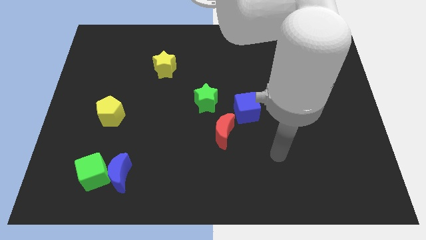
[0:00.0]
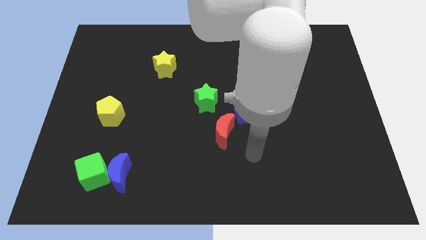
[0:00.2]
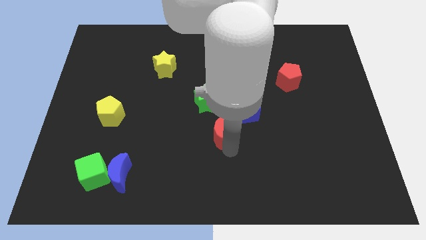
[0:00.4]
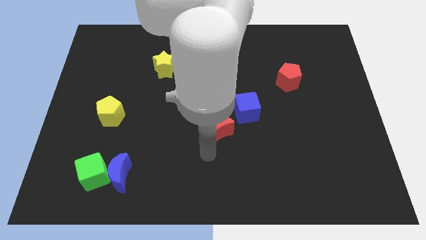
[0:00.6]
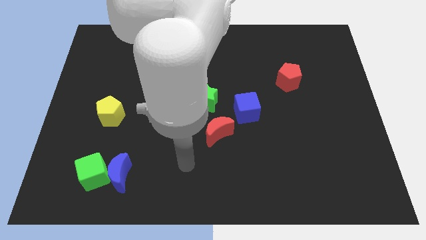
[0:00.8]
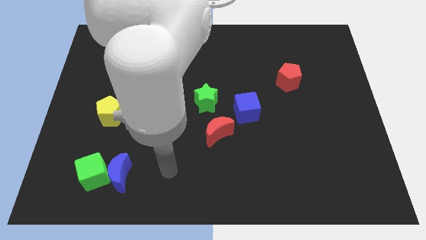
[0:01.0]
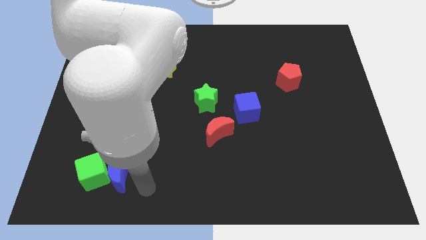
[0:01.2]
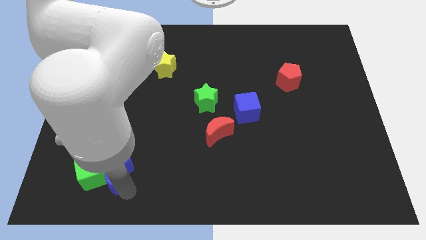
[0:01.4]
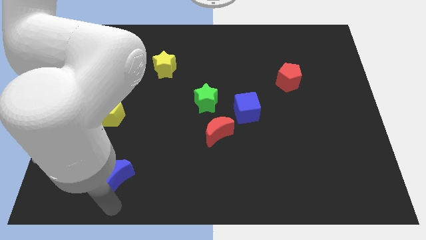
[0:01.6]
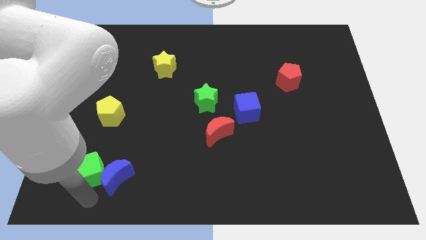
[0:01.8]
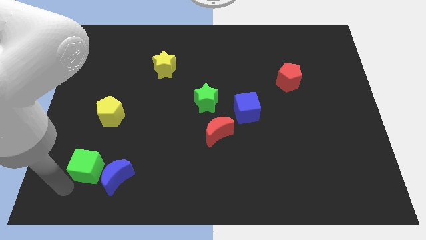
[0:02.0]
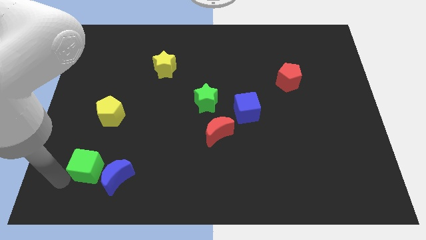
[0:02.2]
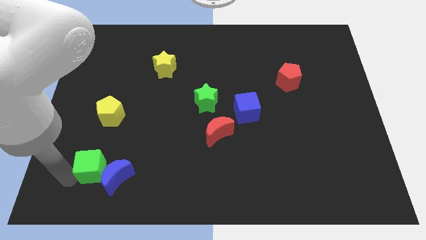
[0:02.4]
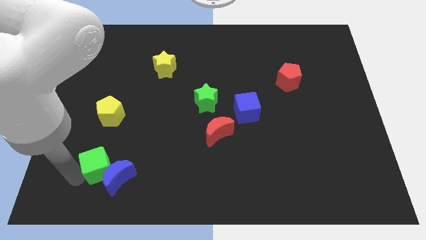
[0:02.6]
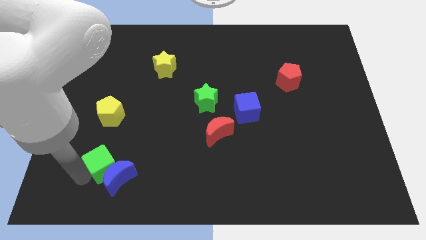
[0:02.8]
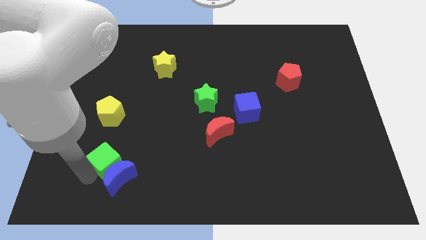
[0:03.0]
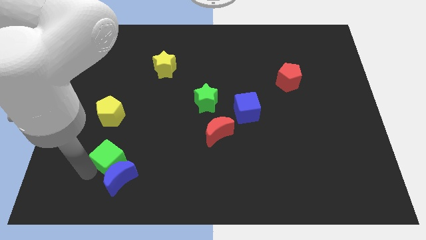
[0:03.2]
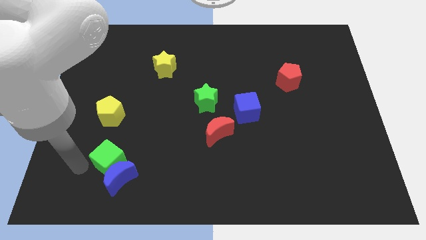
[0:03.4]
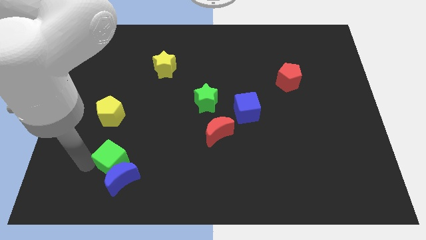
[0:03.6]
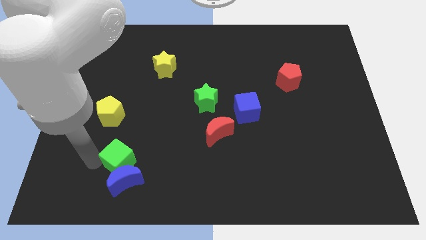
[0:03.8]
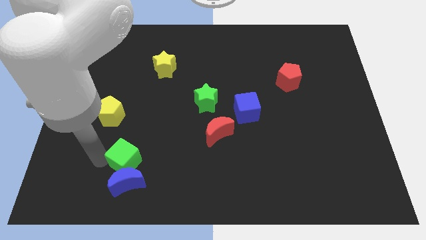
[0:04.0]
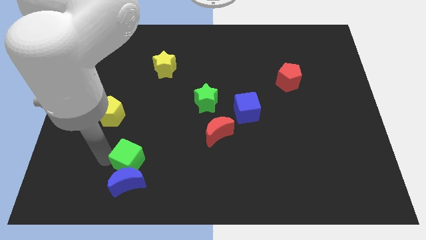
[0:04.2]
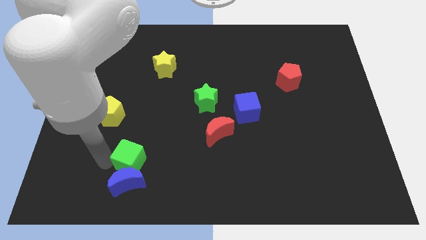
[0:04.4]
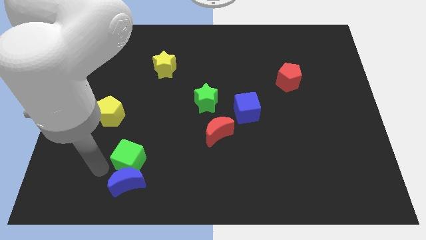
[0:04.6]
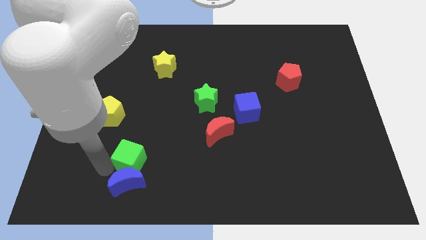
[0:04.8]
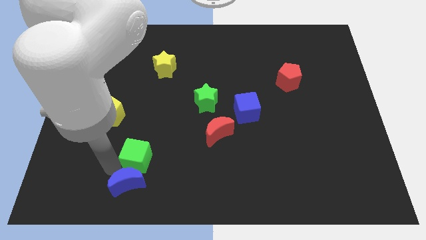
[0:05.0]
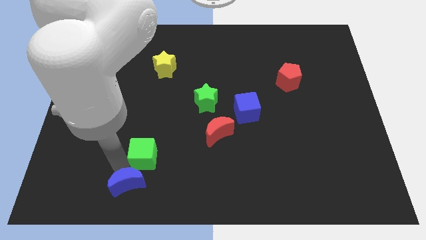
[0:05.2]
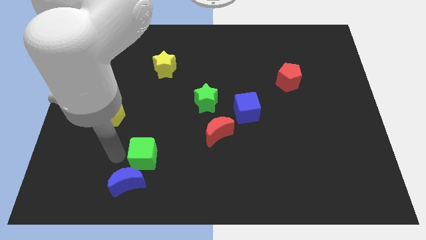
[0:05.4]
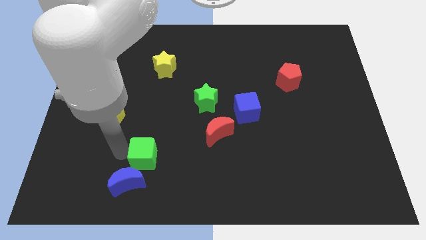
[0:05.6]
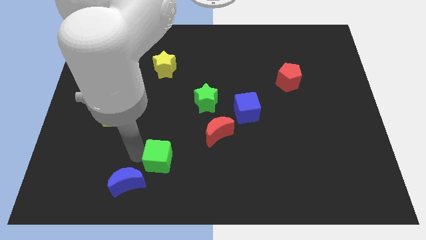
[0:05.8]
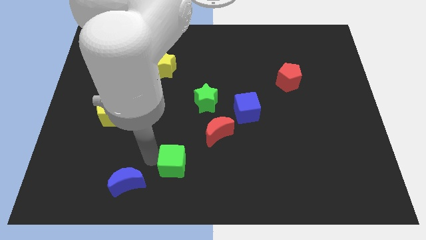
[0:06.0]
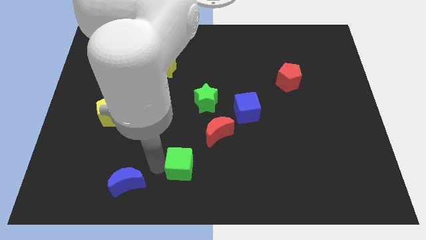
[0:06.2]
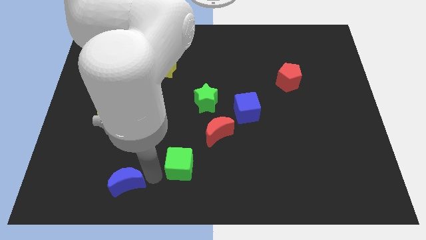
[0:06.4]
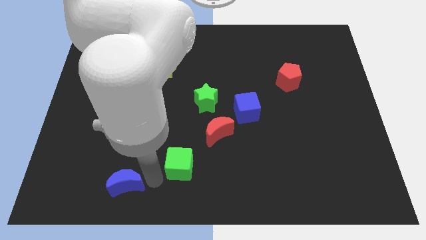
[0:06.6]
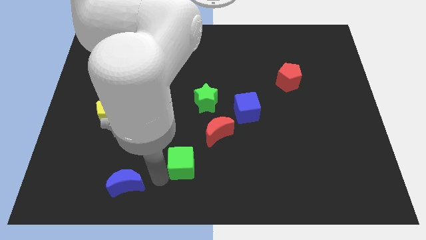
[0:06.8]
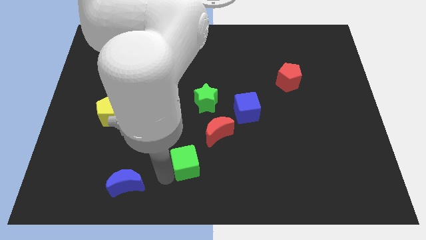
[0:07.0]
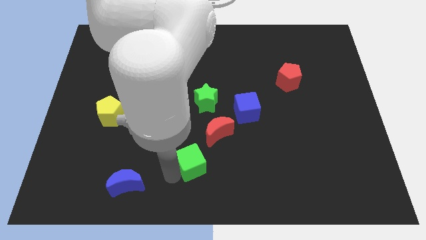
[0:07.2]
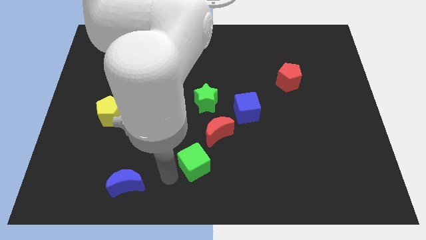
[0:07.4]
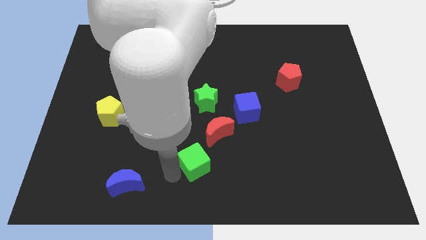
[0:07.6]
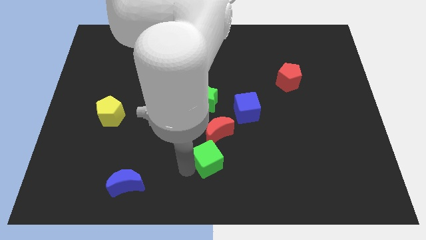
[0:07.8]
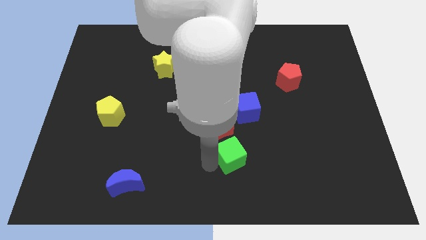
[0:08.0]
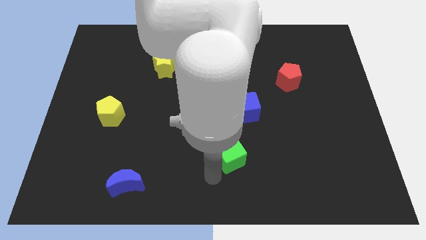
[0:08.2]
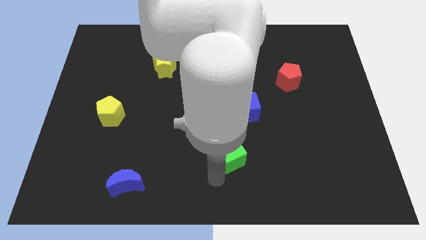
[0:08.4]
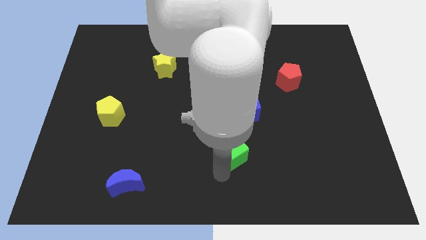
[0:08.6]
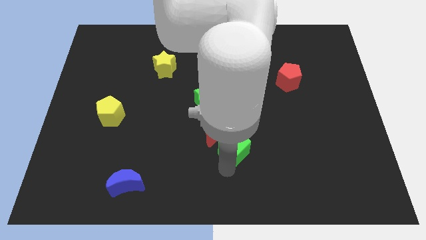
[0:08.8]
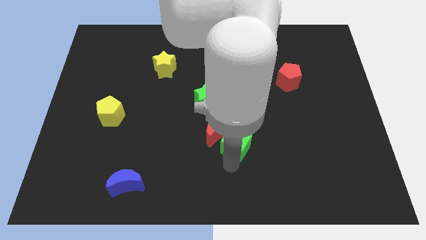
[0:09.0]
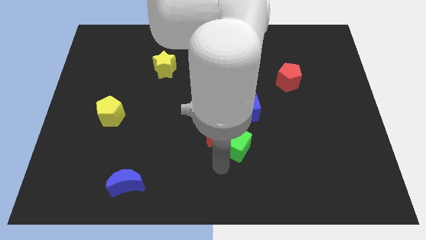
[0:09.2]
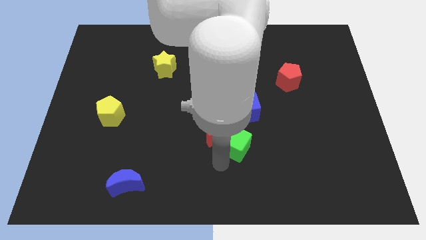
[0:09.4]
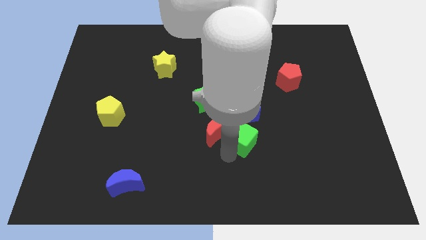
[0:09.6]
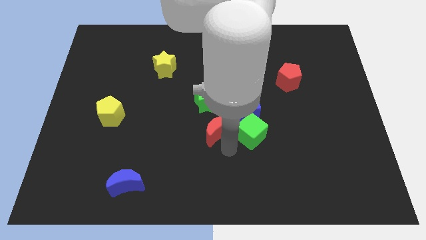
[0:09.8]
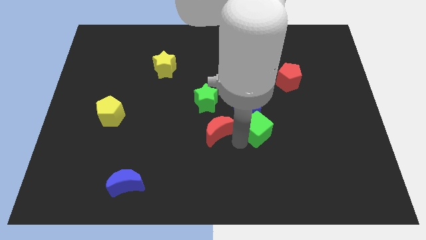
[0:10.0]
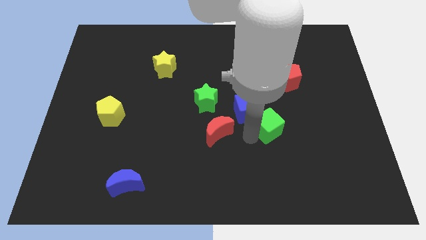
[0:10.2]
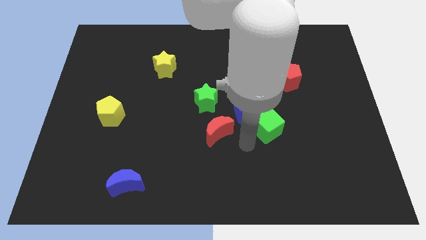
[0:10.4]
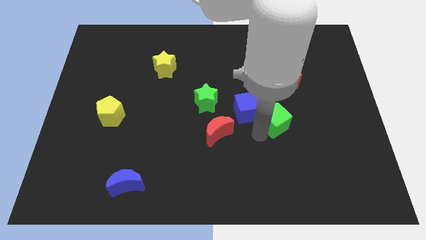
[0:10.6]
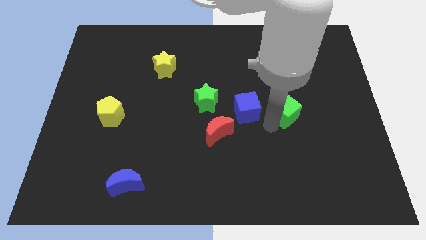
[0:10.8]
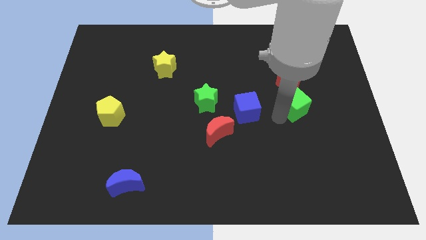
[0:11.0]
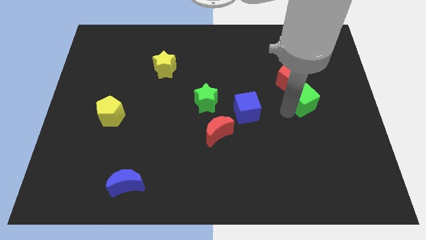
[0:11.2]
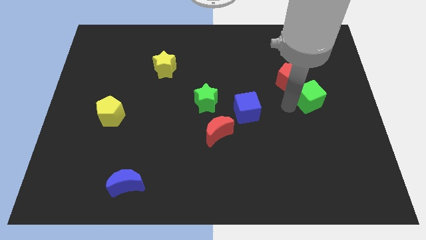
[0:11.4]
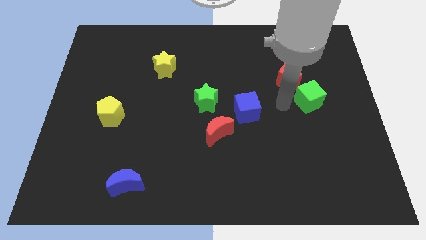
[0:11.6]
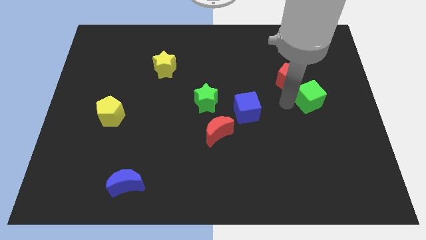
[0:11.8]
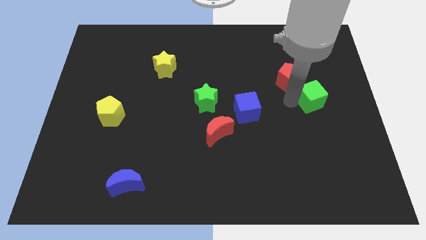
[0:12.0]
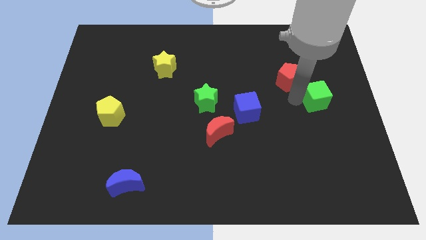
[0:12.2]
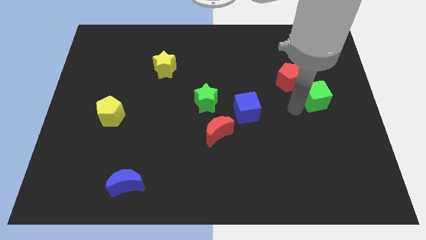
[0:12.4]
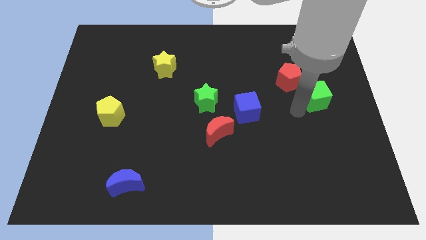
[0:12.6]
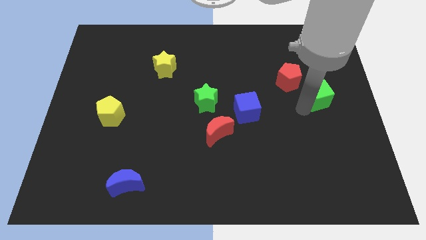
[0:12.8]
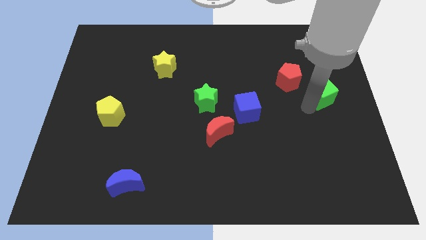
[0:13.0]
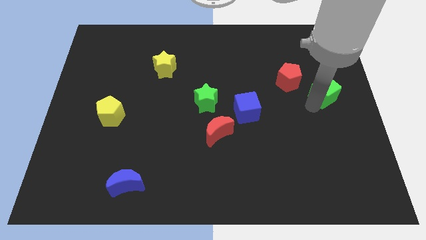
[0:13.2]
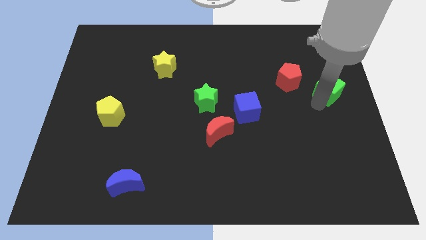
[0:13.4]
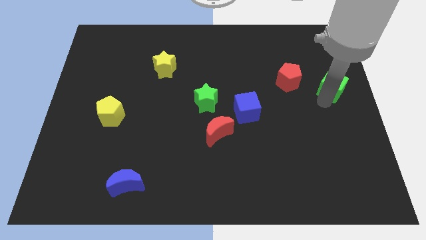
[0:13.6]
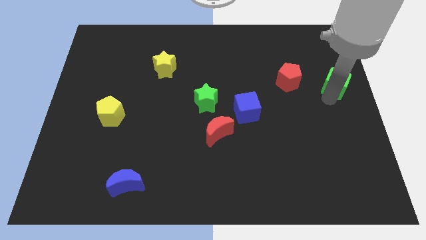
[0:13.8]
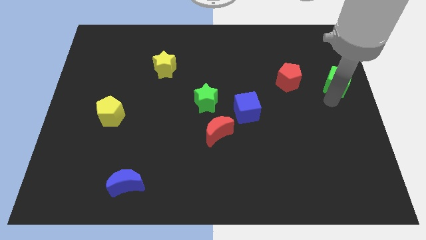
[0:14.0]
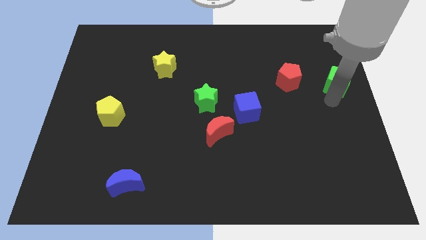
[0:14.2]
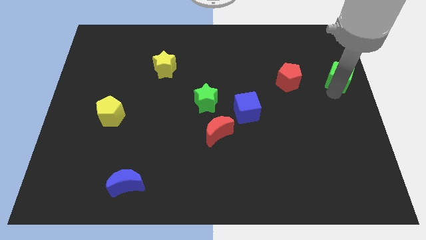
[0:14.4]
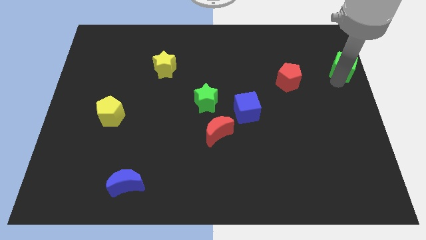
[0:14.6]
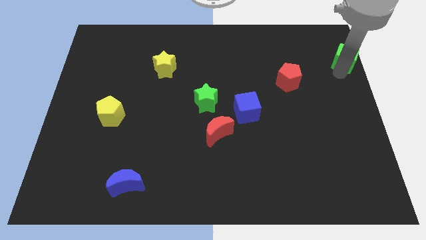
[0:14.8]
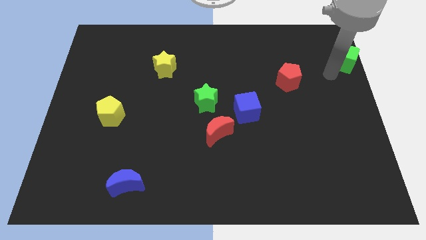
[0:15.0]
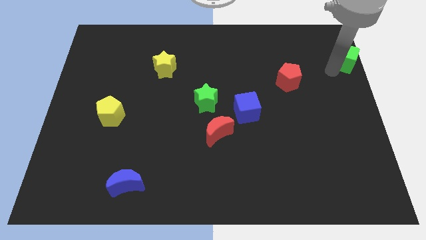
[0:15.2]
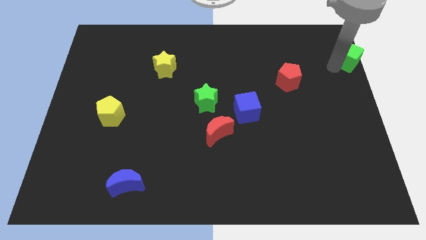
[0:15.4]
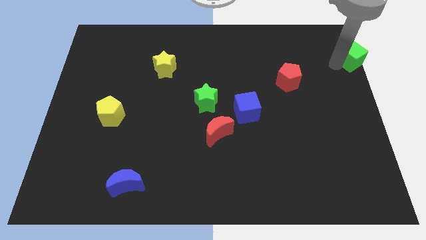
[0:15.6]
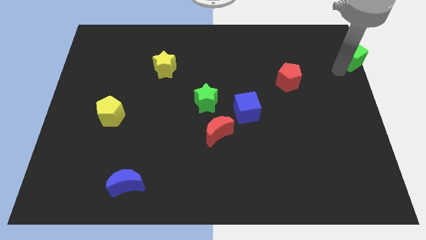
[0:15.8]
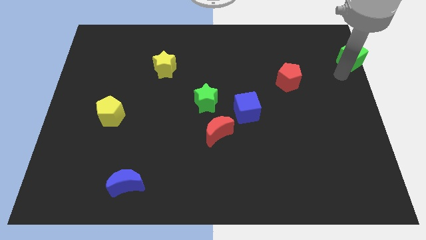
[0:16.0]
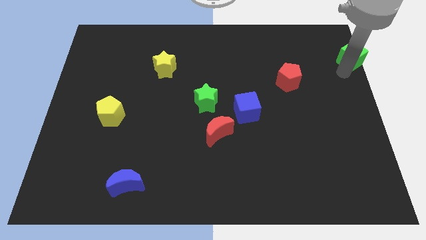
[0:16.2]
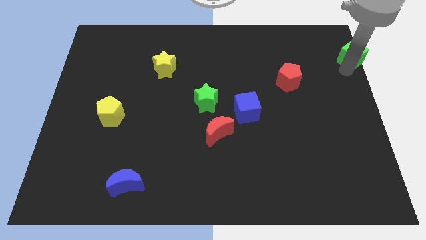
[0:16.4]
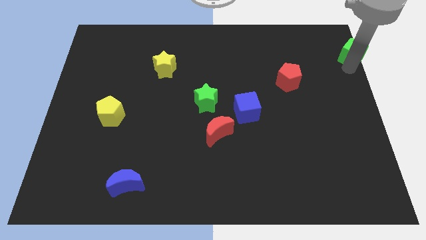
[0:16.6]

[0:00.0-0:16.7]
slide the green cube to the top right of the board
